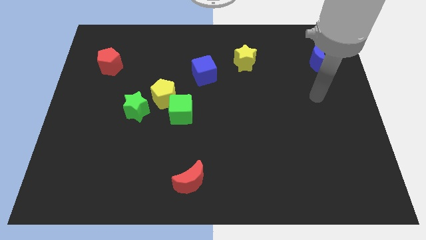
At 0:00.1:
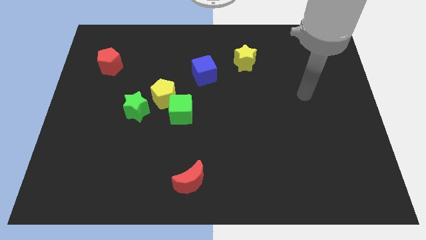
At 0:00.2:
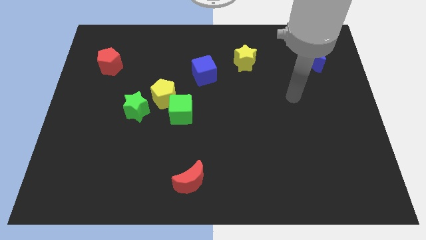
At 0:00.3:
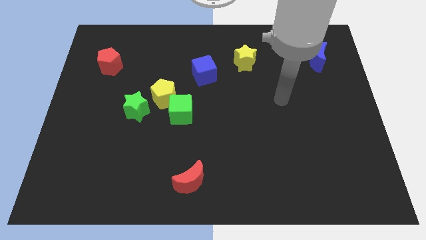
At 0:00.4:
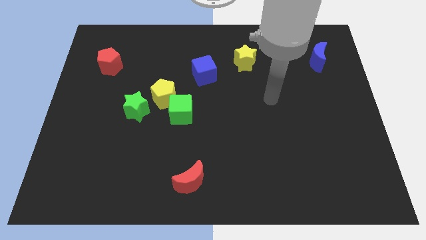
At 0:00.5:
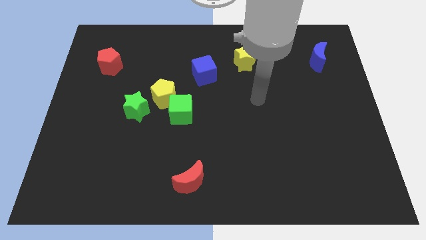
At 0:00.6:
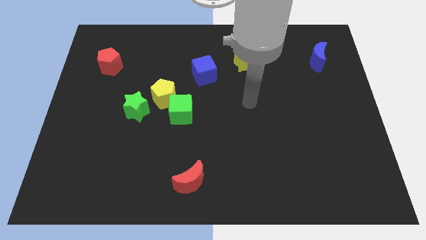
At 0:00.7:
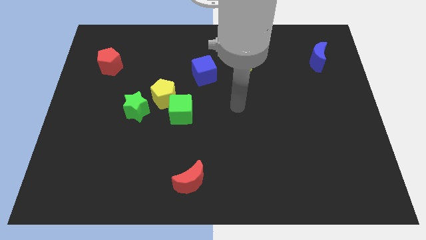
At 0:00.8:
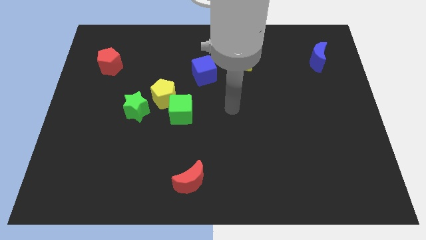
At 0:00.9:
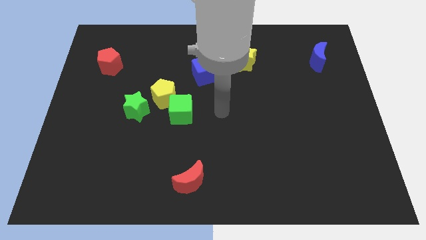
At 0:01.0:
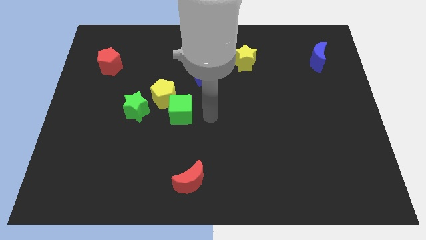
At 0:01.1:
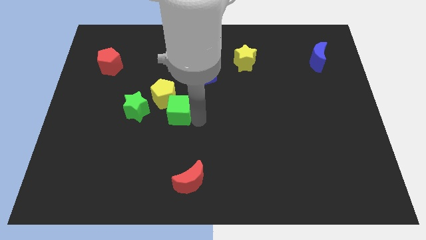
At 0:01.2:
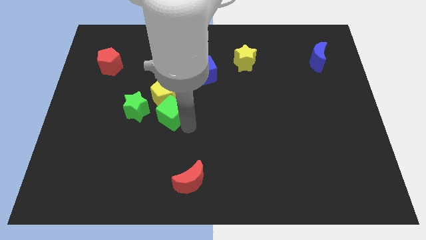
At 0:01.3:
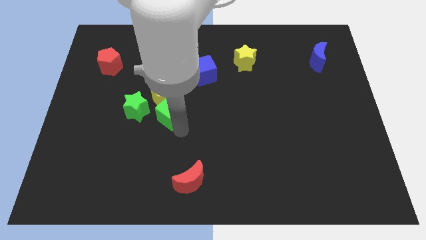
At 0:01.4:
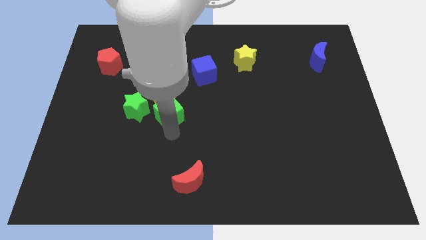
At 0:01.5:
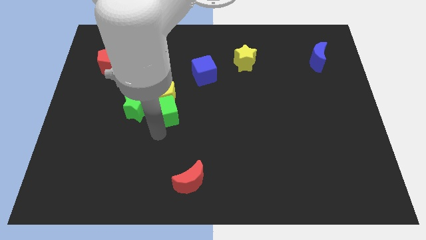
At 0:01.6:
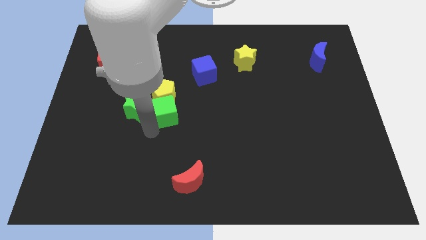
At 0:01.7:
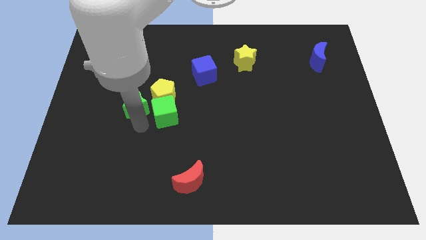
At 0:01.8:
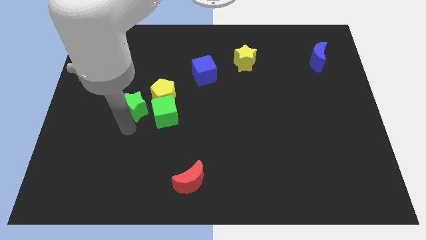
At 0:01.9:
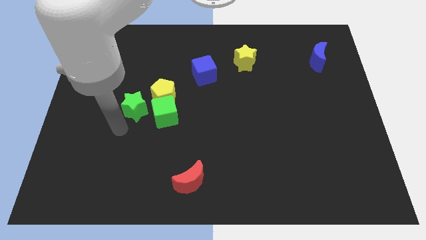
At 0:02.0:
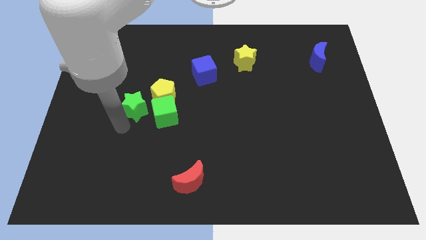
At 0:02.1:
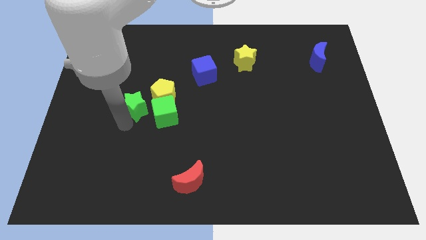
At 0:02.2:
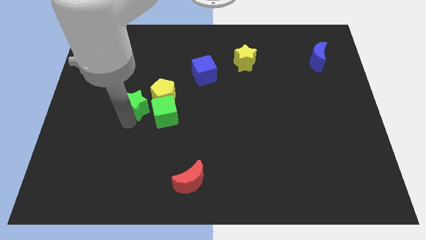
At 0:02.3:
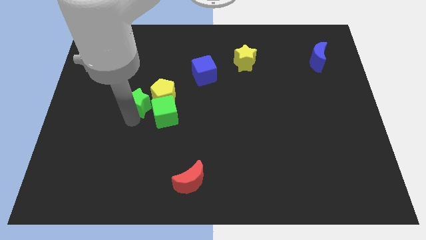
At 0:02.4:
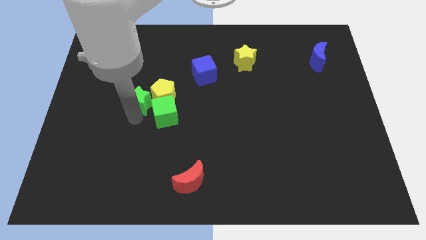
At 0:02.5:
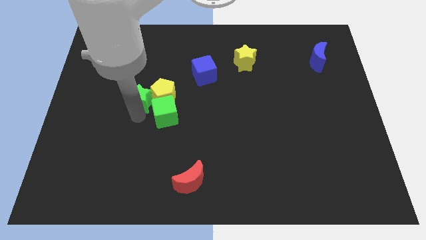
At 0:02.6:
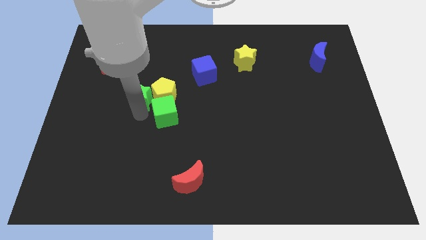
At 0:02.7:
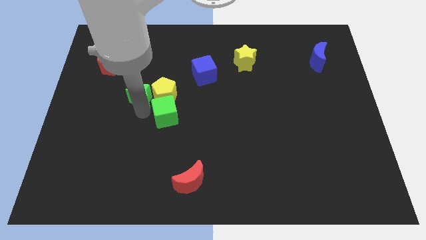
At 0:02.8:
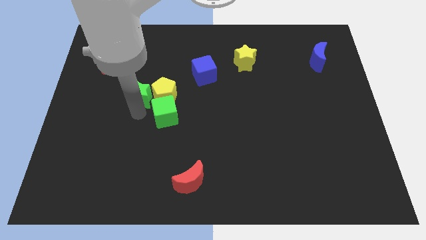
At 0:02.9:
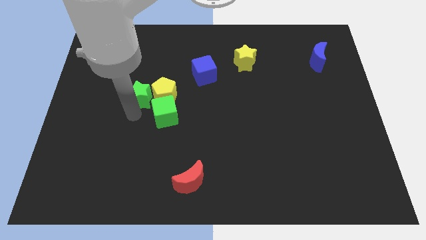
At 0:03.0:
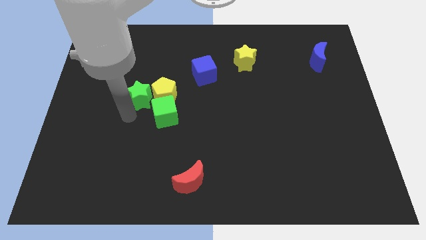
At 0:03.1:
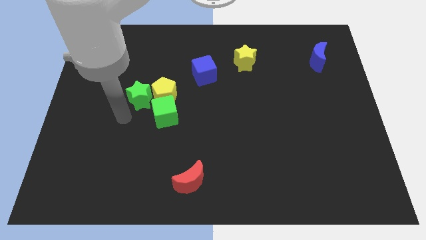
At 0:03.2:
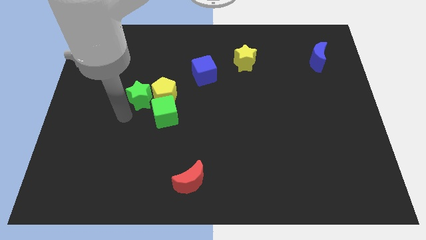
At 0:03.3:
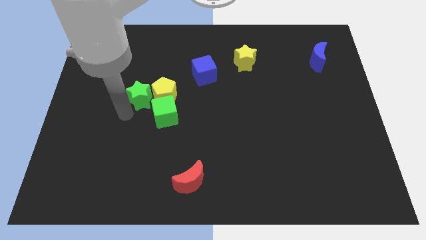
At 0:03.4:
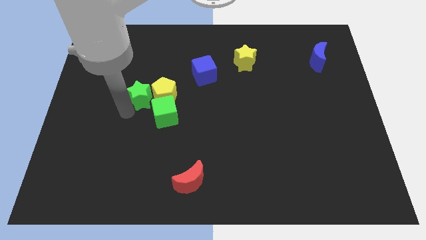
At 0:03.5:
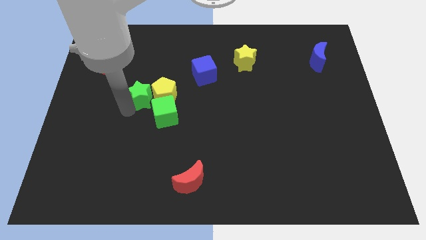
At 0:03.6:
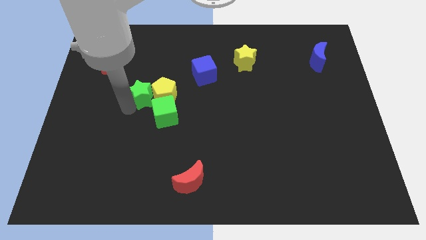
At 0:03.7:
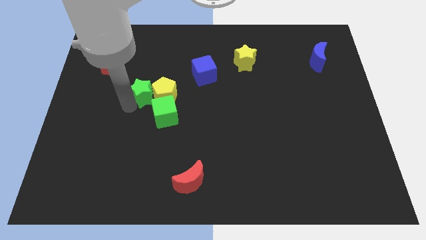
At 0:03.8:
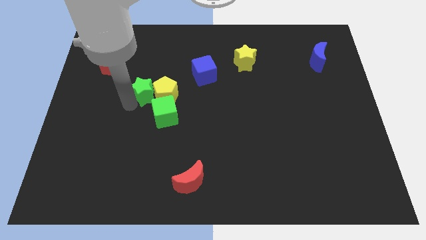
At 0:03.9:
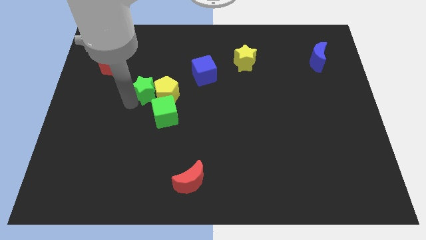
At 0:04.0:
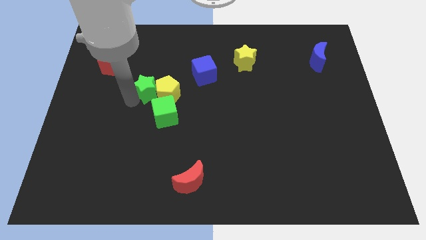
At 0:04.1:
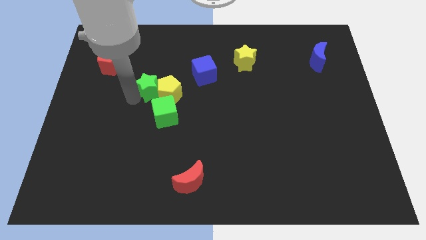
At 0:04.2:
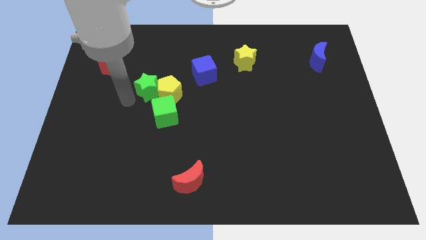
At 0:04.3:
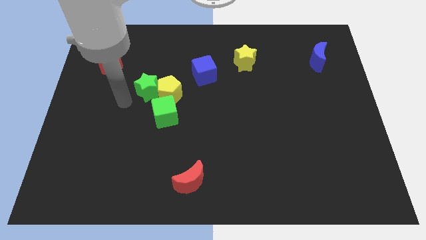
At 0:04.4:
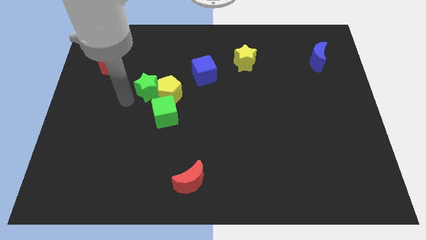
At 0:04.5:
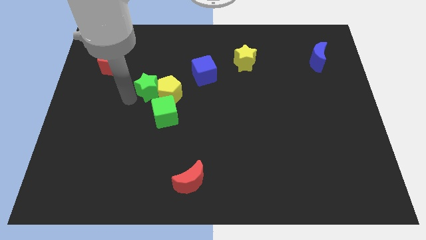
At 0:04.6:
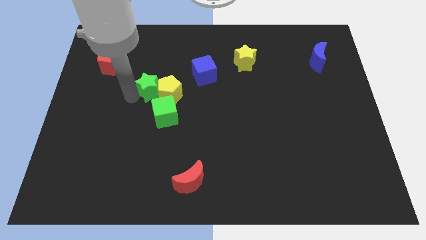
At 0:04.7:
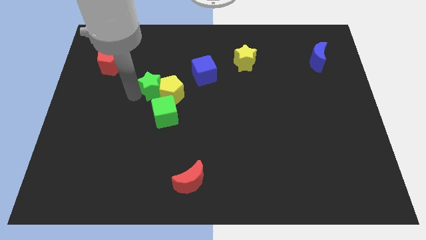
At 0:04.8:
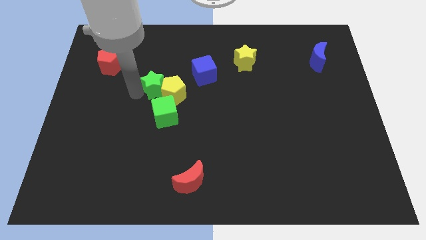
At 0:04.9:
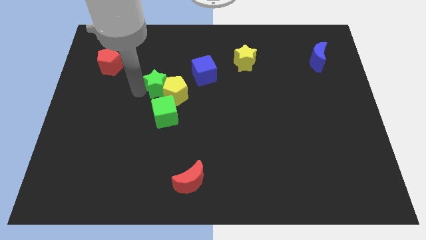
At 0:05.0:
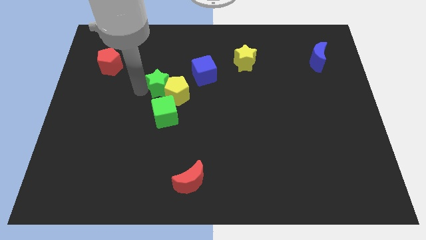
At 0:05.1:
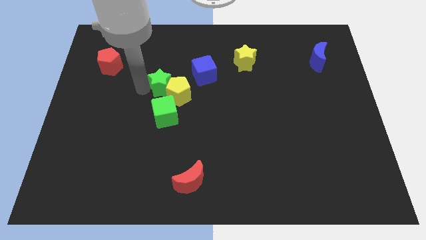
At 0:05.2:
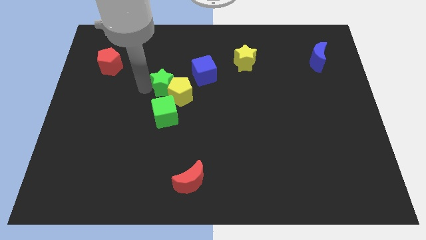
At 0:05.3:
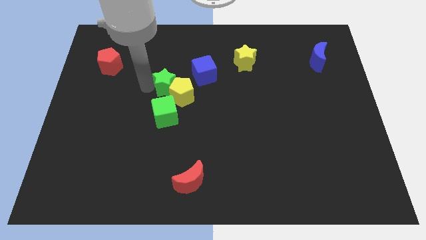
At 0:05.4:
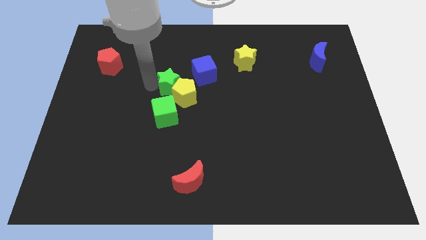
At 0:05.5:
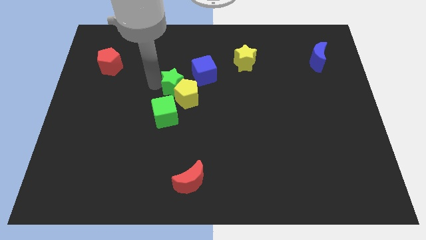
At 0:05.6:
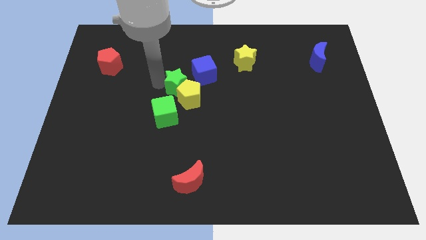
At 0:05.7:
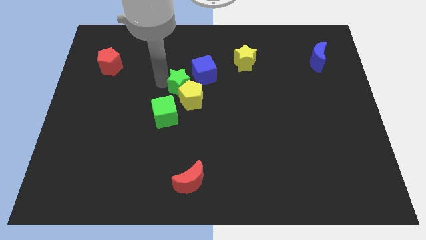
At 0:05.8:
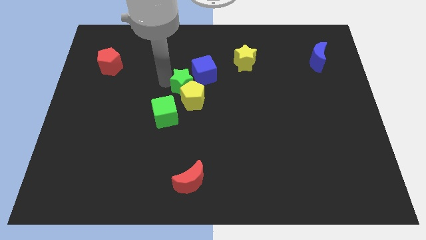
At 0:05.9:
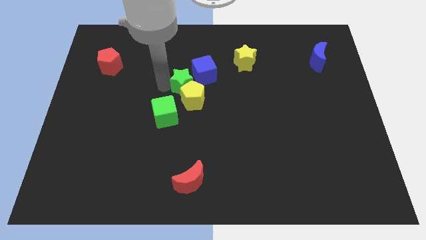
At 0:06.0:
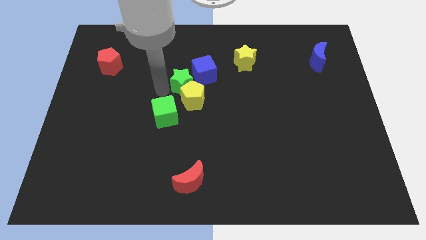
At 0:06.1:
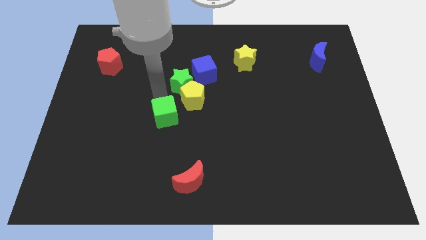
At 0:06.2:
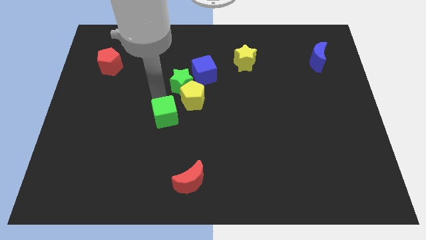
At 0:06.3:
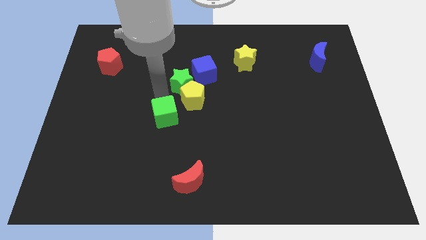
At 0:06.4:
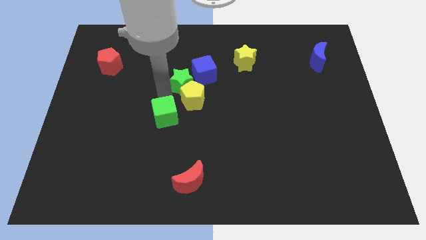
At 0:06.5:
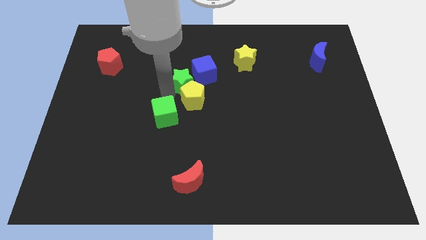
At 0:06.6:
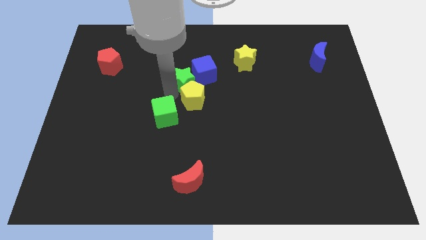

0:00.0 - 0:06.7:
put the green star close to the blue cube

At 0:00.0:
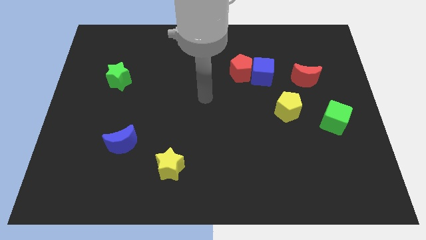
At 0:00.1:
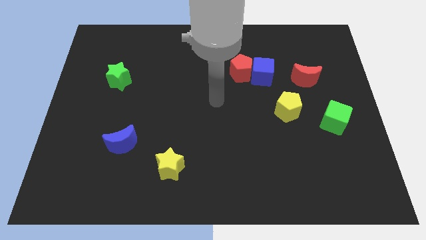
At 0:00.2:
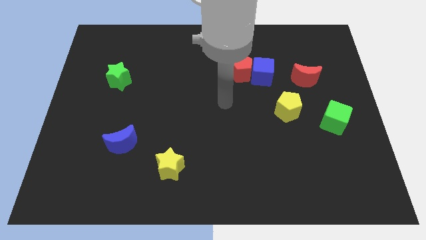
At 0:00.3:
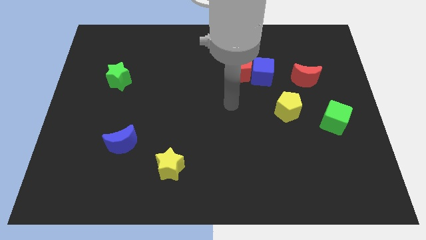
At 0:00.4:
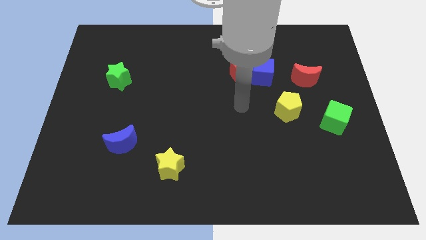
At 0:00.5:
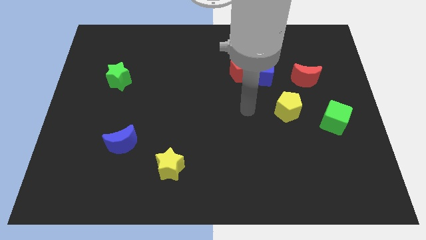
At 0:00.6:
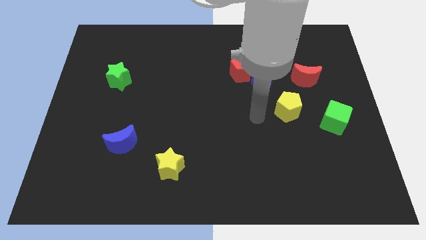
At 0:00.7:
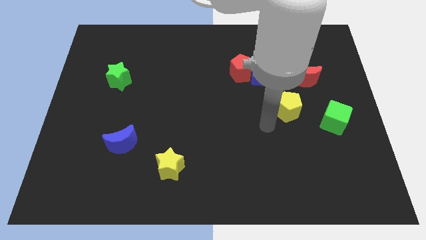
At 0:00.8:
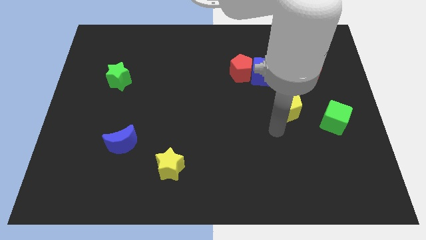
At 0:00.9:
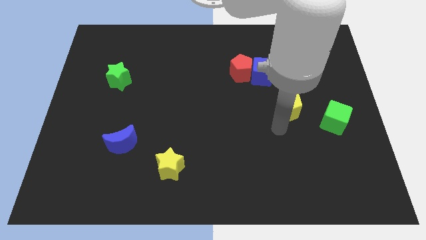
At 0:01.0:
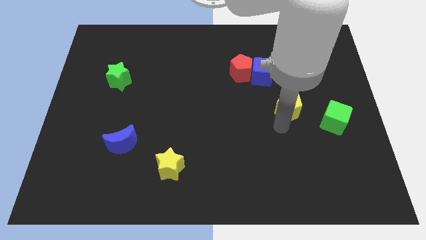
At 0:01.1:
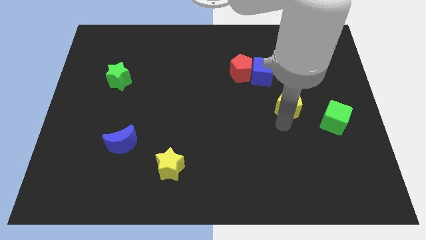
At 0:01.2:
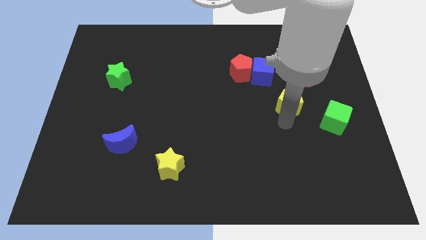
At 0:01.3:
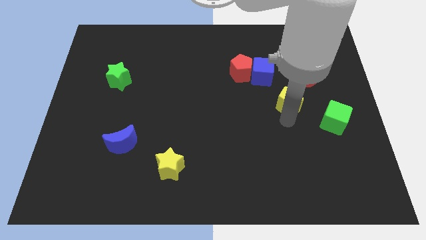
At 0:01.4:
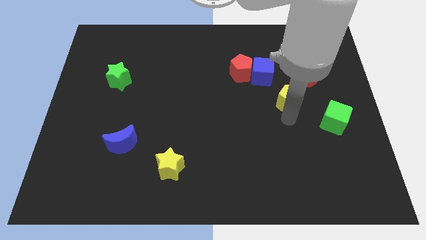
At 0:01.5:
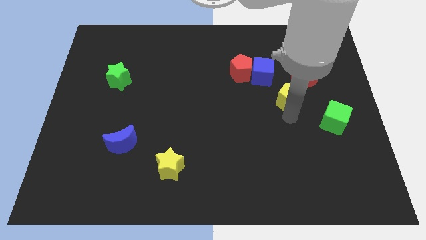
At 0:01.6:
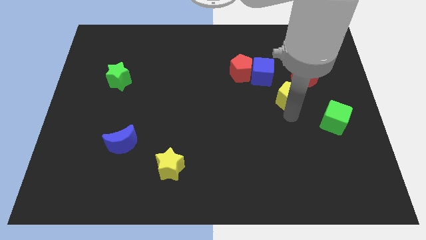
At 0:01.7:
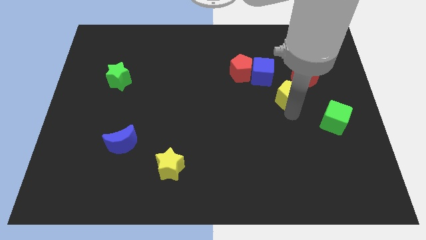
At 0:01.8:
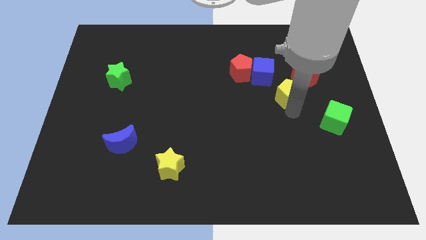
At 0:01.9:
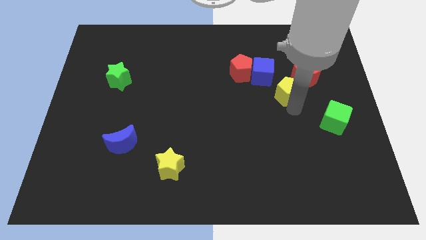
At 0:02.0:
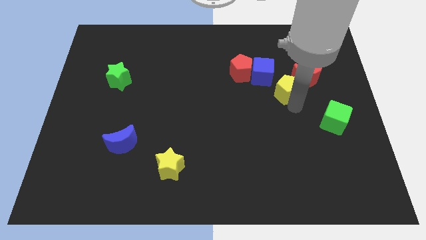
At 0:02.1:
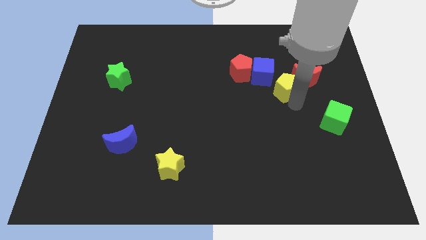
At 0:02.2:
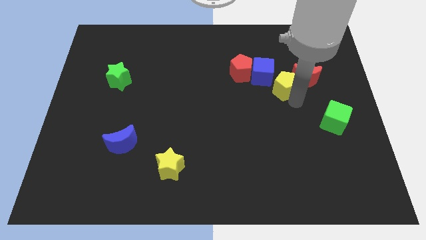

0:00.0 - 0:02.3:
push the yellow pentagon to the red moon
